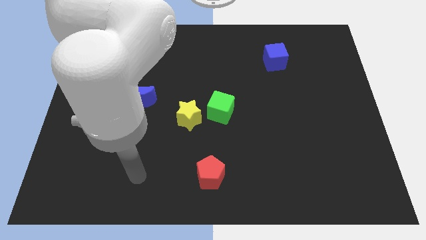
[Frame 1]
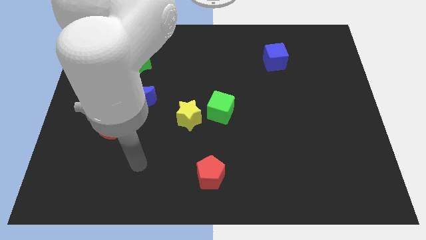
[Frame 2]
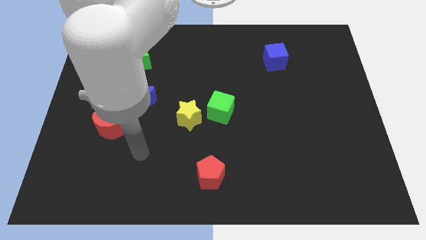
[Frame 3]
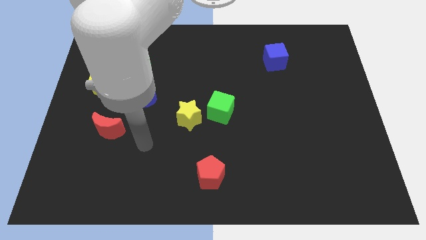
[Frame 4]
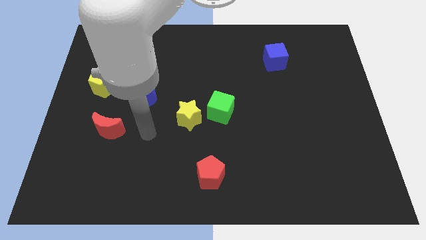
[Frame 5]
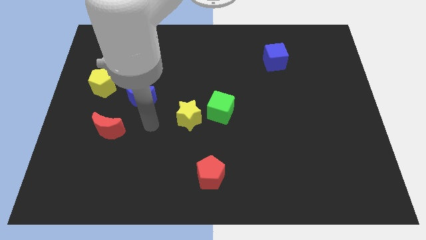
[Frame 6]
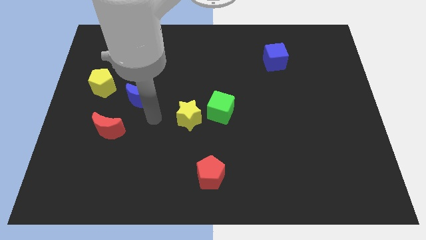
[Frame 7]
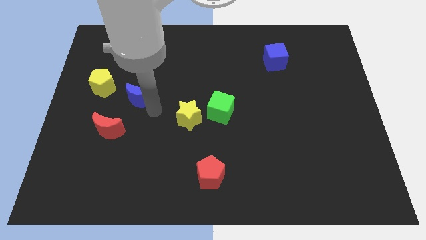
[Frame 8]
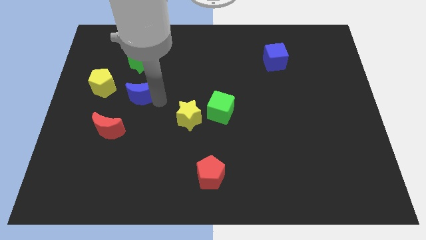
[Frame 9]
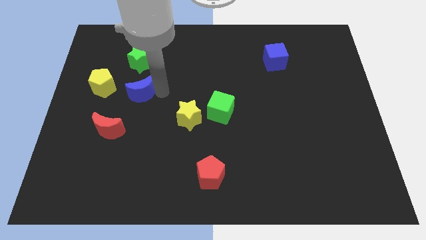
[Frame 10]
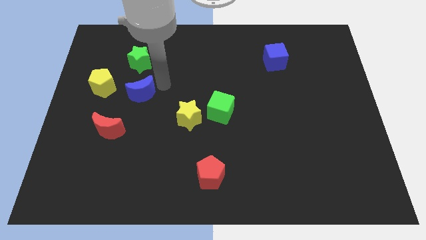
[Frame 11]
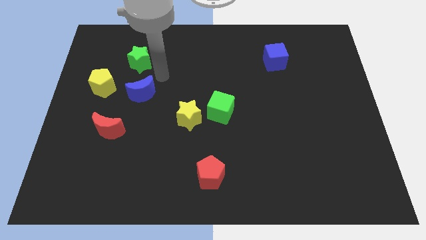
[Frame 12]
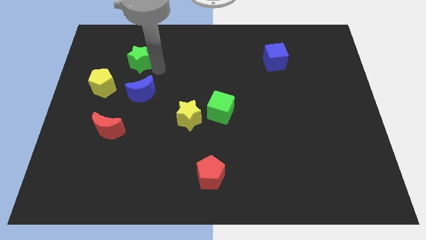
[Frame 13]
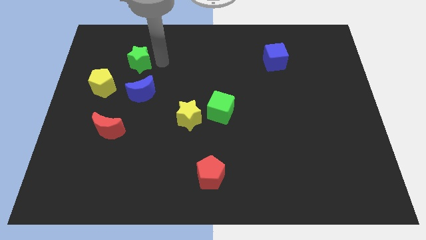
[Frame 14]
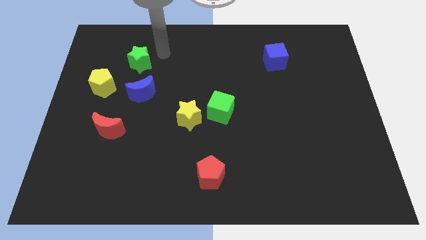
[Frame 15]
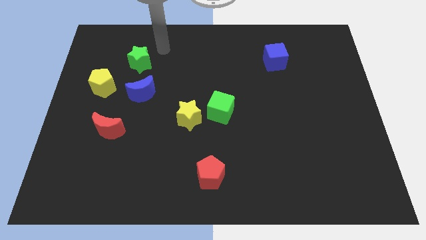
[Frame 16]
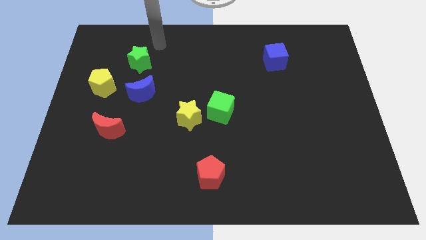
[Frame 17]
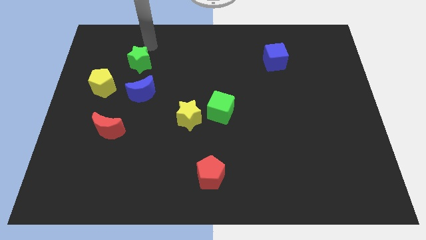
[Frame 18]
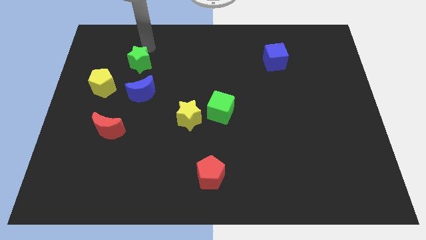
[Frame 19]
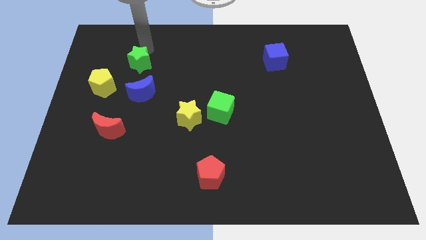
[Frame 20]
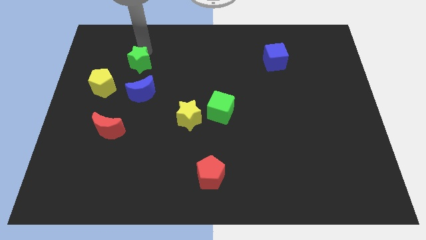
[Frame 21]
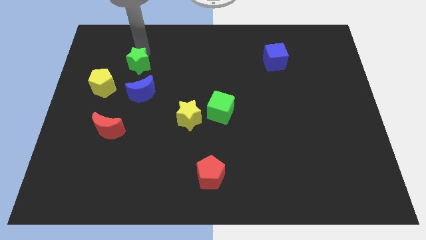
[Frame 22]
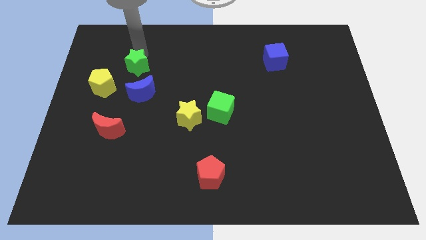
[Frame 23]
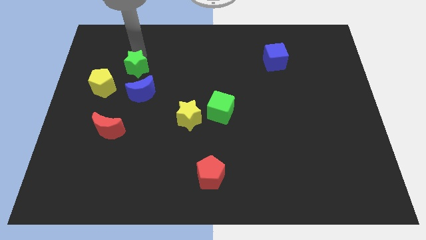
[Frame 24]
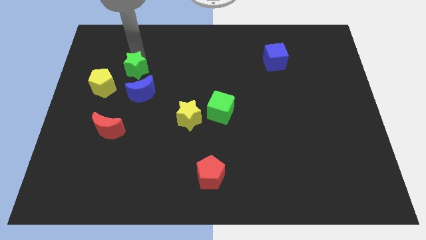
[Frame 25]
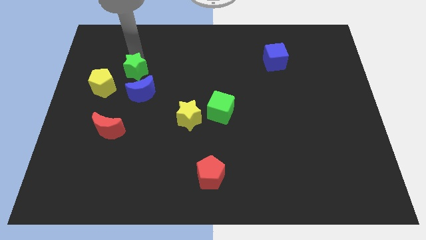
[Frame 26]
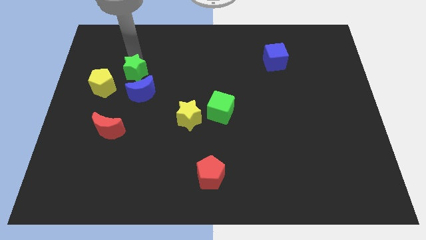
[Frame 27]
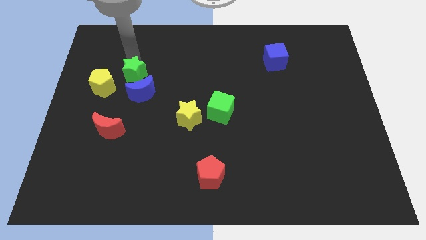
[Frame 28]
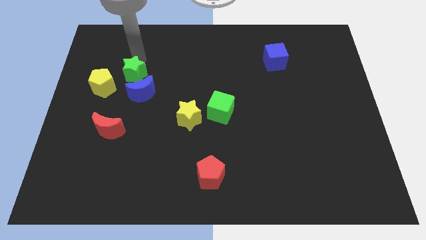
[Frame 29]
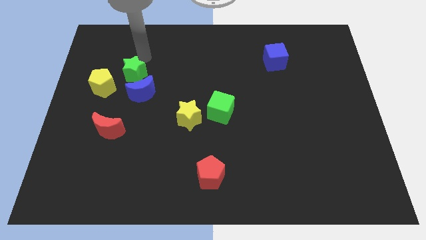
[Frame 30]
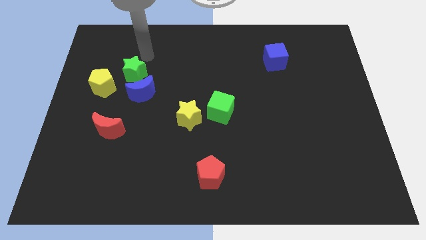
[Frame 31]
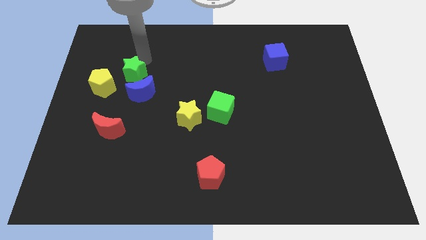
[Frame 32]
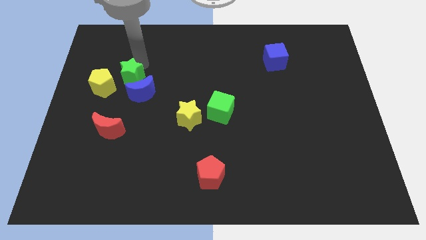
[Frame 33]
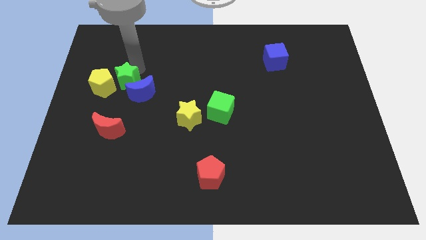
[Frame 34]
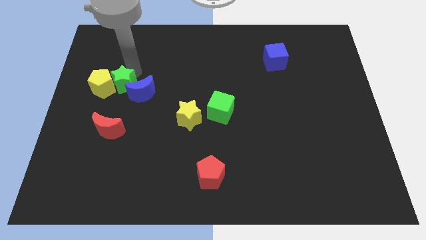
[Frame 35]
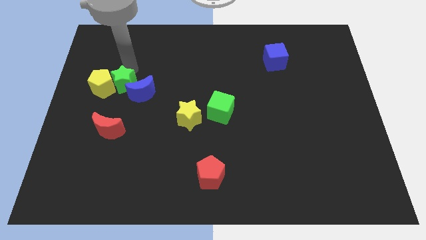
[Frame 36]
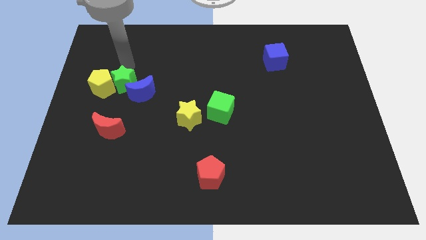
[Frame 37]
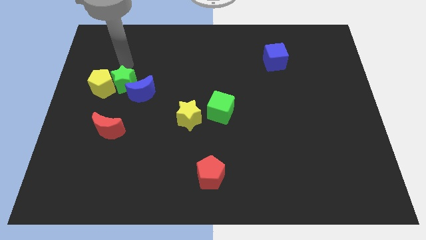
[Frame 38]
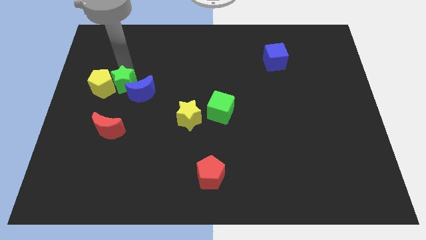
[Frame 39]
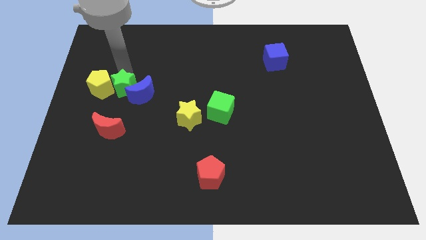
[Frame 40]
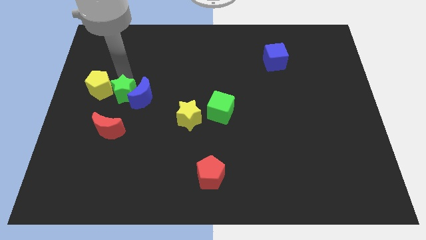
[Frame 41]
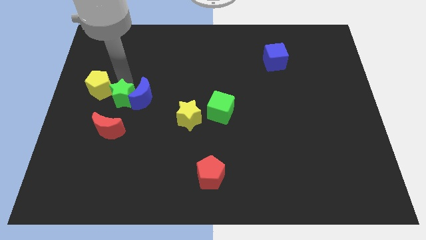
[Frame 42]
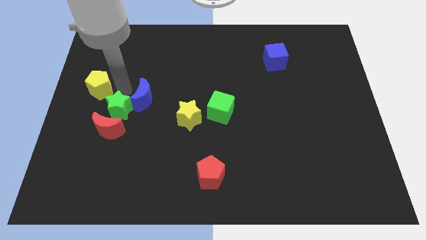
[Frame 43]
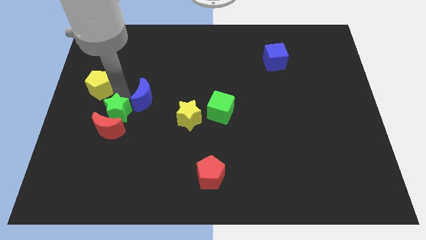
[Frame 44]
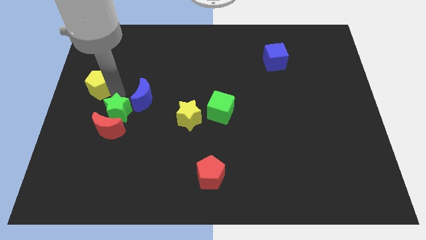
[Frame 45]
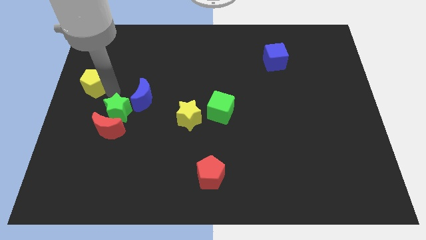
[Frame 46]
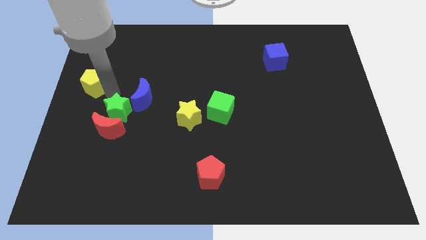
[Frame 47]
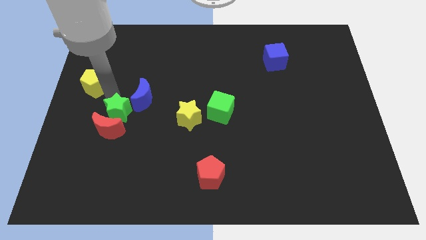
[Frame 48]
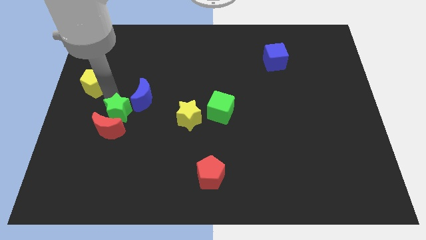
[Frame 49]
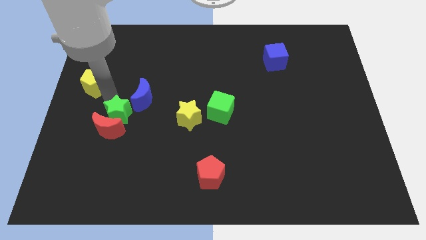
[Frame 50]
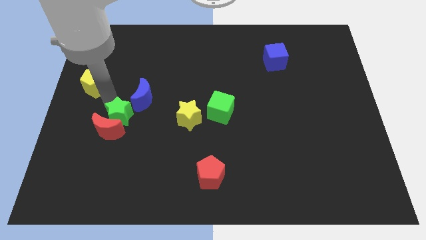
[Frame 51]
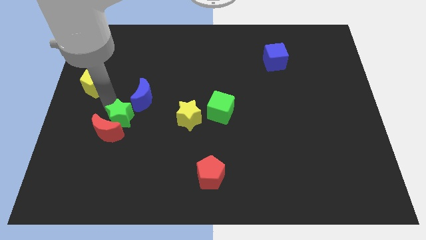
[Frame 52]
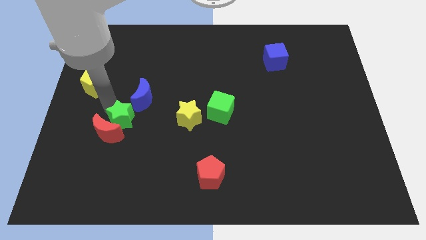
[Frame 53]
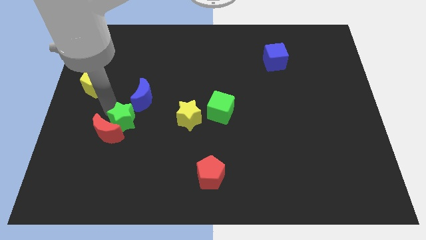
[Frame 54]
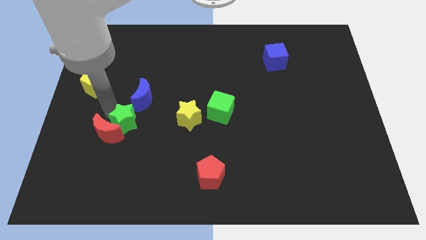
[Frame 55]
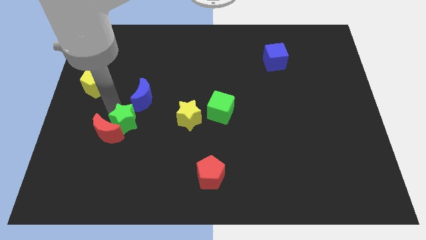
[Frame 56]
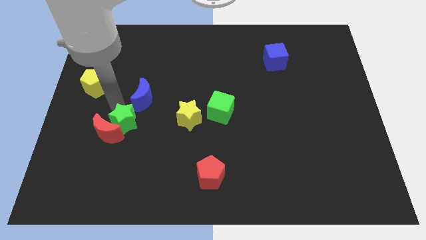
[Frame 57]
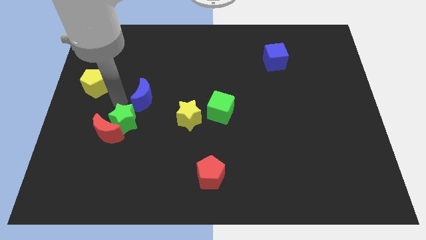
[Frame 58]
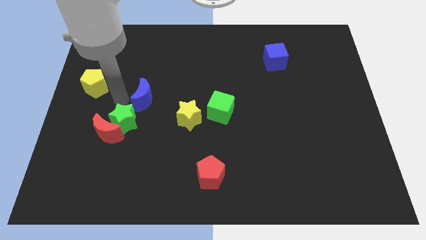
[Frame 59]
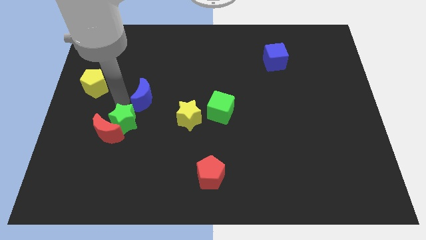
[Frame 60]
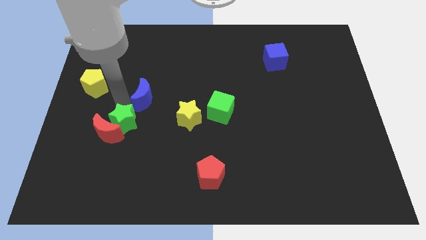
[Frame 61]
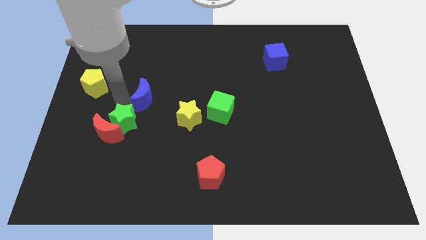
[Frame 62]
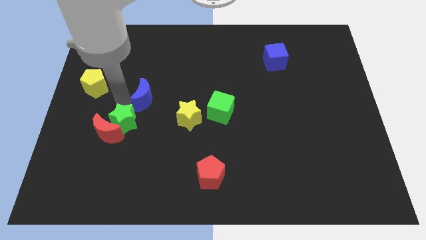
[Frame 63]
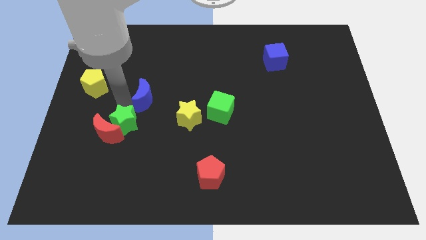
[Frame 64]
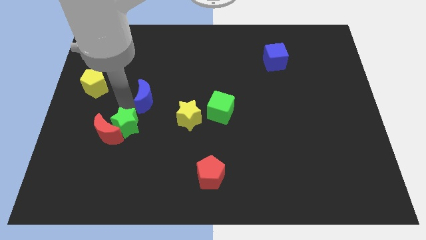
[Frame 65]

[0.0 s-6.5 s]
slide the green star down

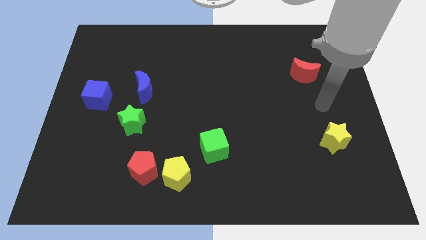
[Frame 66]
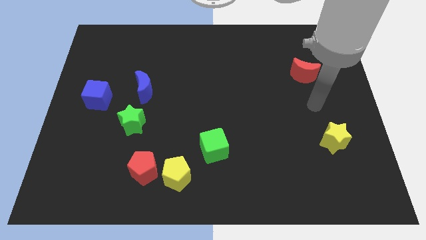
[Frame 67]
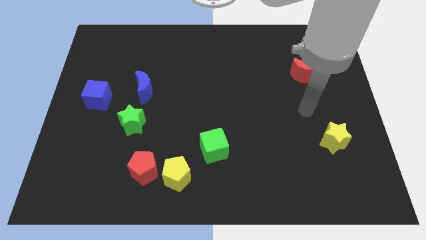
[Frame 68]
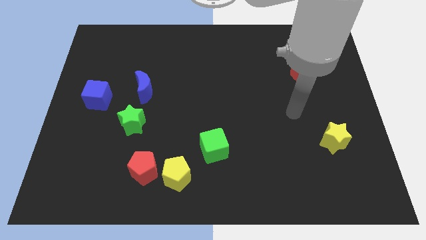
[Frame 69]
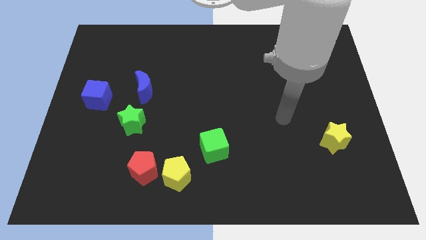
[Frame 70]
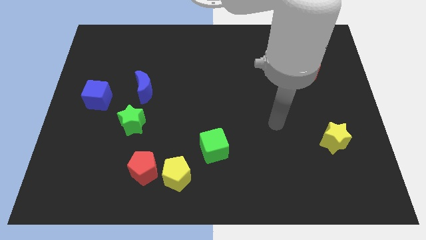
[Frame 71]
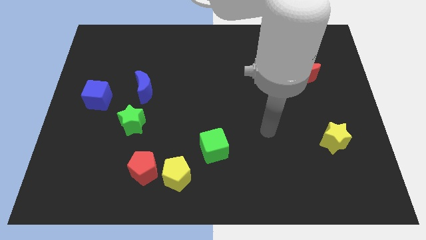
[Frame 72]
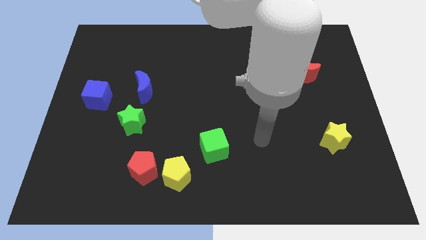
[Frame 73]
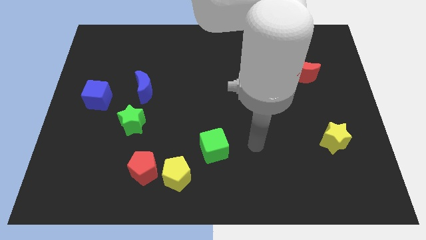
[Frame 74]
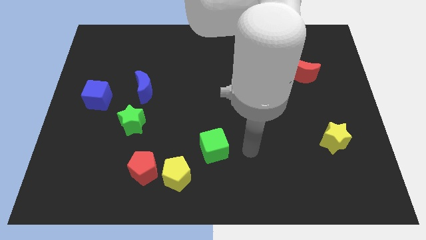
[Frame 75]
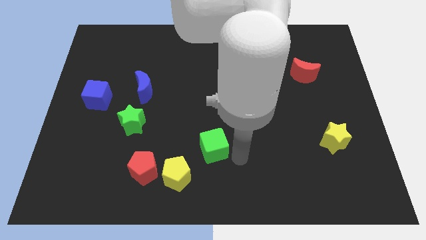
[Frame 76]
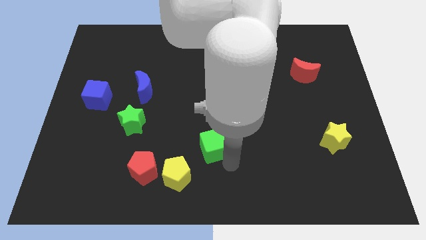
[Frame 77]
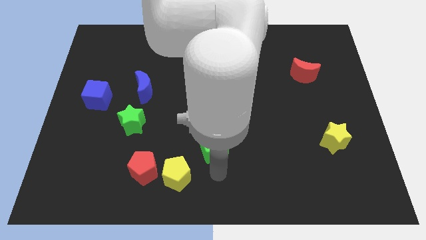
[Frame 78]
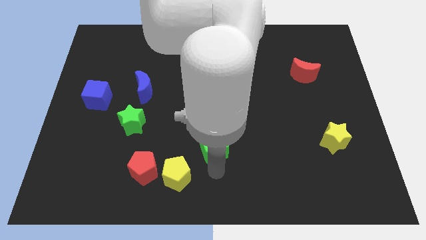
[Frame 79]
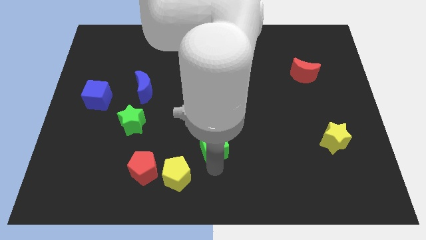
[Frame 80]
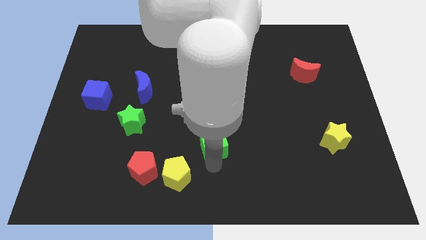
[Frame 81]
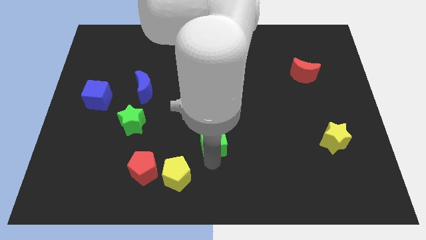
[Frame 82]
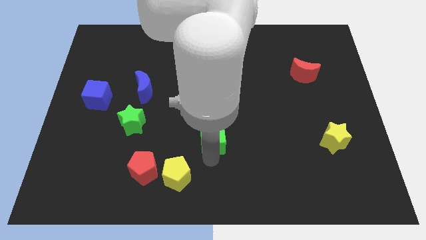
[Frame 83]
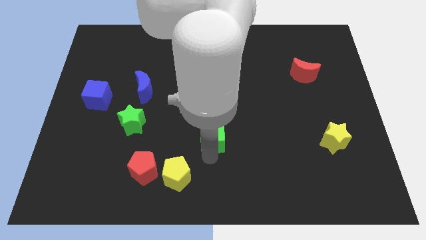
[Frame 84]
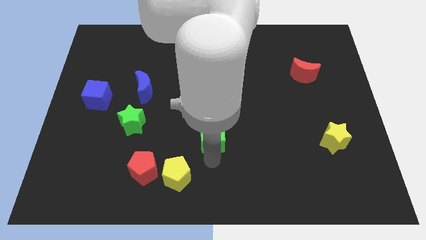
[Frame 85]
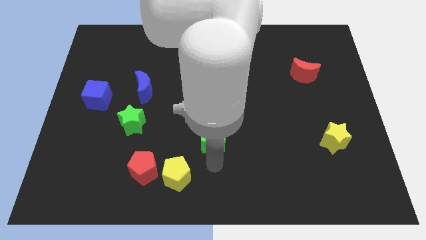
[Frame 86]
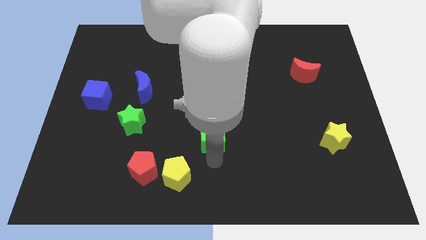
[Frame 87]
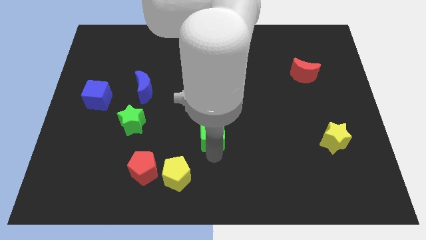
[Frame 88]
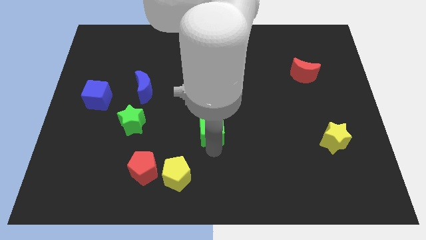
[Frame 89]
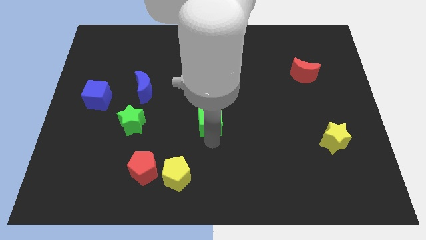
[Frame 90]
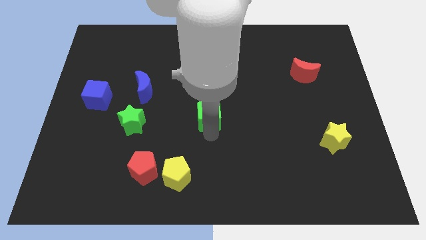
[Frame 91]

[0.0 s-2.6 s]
slightly slide the green cube upwards
